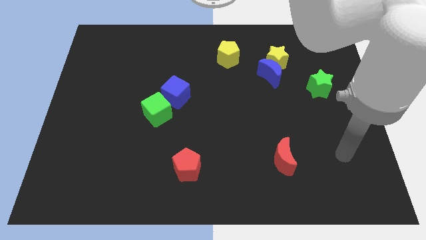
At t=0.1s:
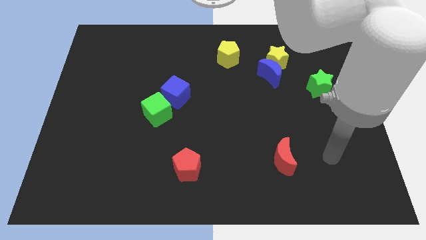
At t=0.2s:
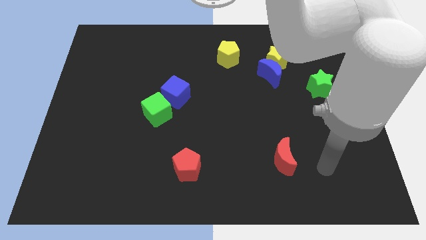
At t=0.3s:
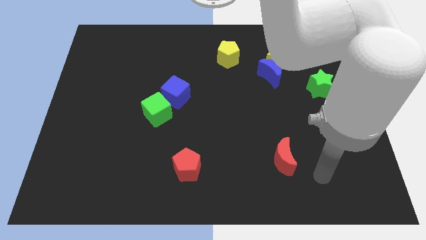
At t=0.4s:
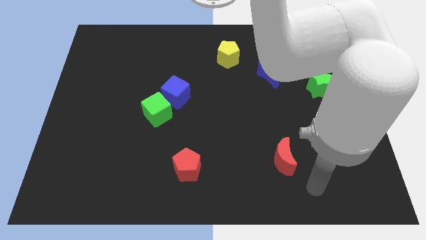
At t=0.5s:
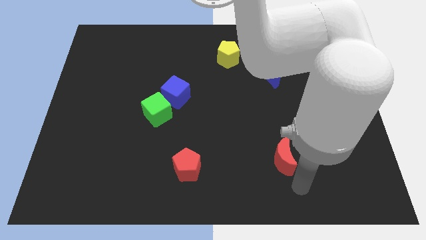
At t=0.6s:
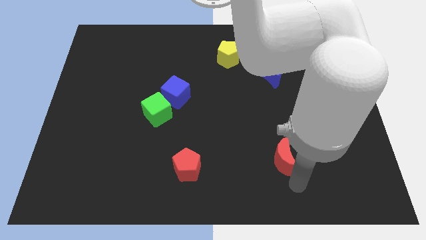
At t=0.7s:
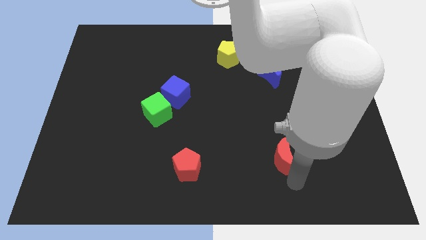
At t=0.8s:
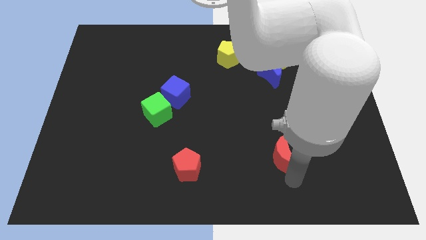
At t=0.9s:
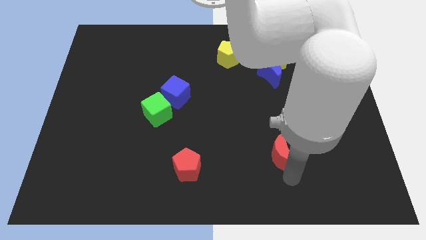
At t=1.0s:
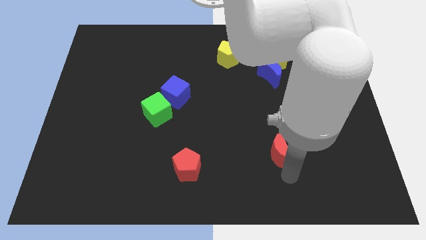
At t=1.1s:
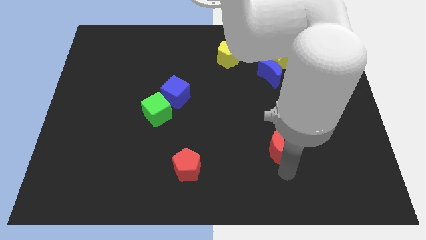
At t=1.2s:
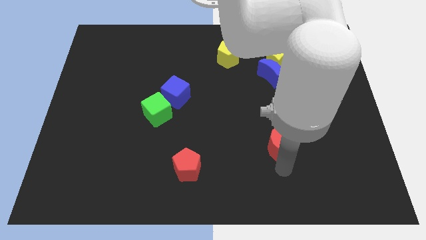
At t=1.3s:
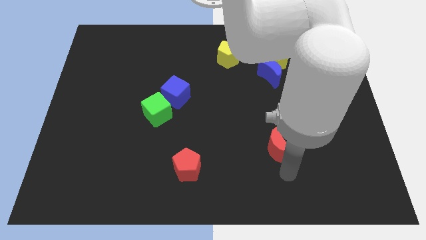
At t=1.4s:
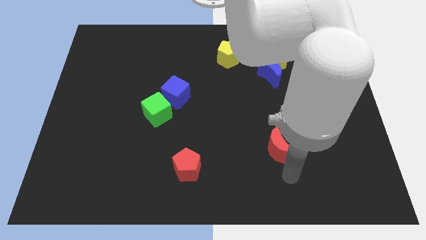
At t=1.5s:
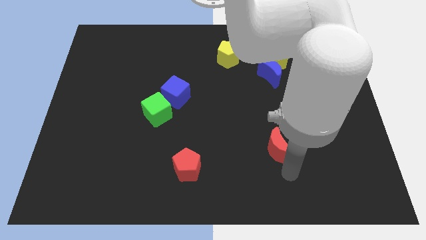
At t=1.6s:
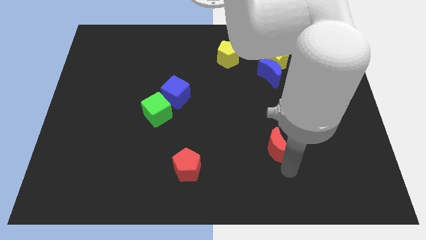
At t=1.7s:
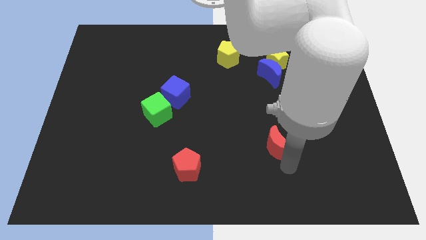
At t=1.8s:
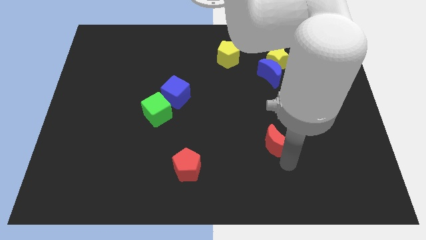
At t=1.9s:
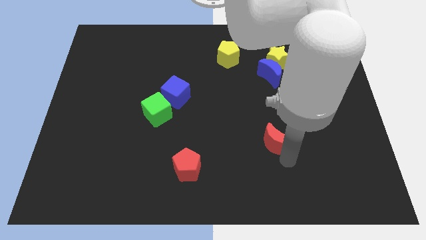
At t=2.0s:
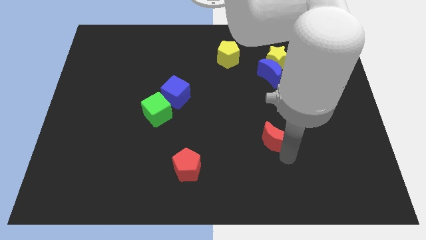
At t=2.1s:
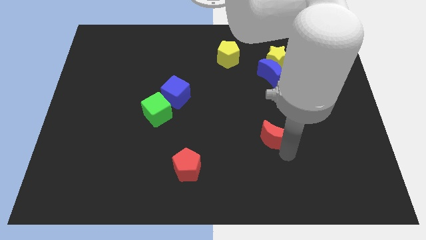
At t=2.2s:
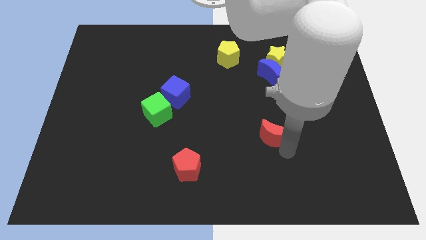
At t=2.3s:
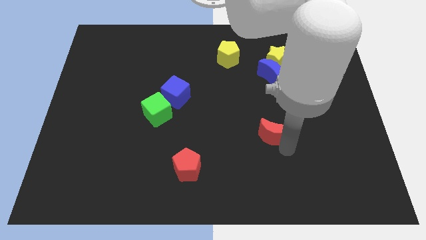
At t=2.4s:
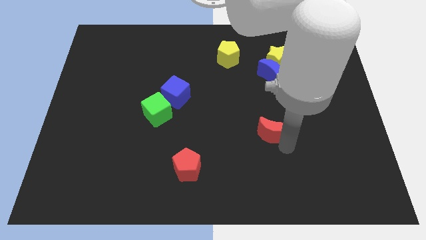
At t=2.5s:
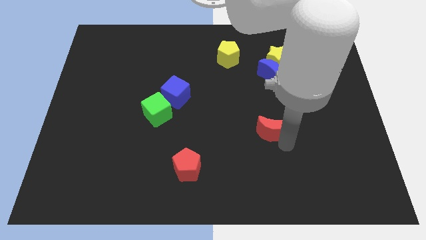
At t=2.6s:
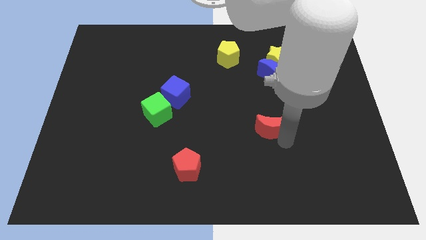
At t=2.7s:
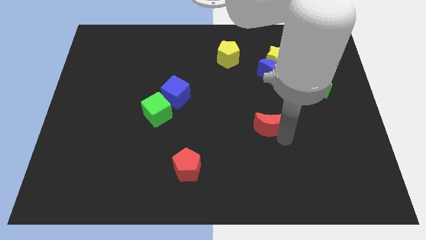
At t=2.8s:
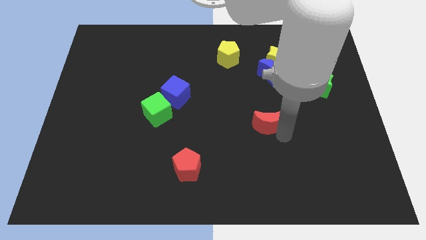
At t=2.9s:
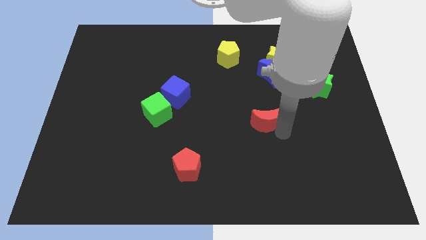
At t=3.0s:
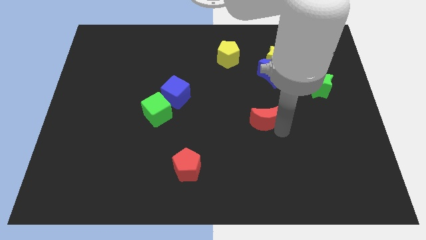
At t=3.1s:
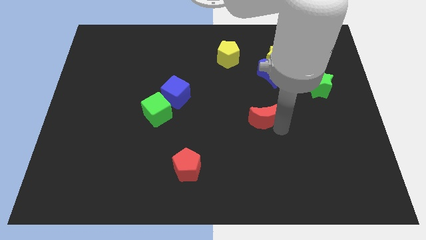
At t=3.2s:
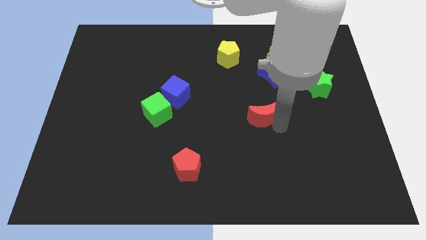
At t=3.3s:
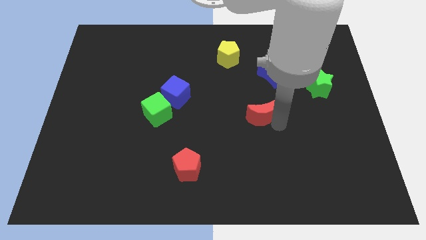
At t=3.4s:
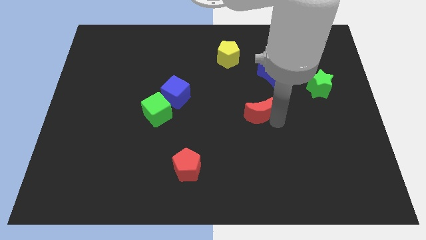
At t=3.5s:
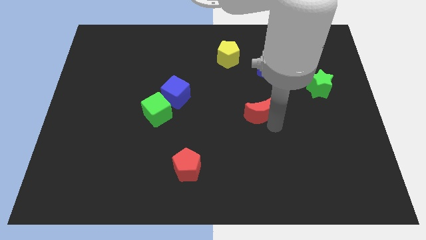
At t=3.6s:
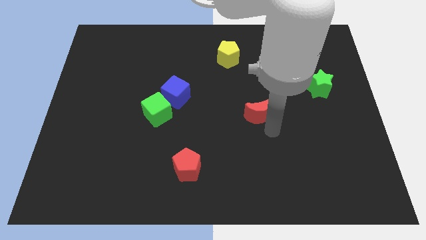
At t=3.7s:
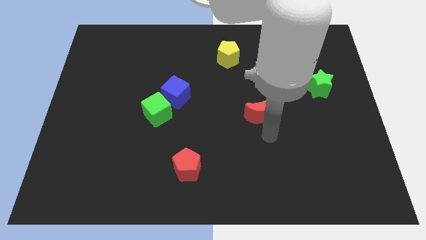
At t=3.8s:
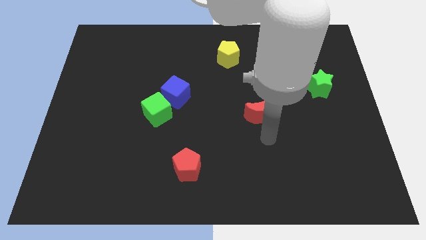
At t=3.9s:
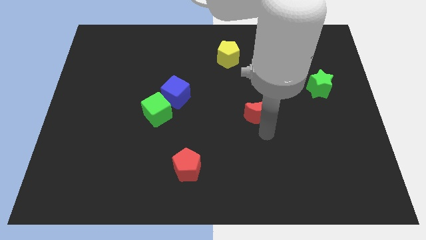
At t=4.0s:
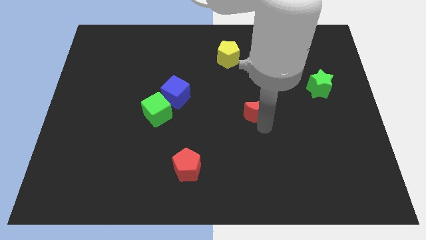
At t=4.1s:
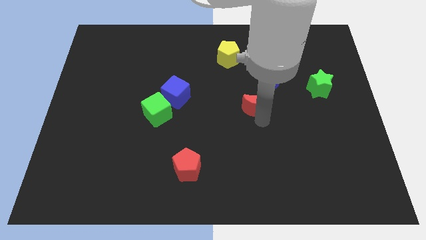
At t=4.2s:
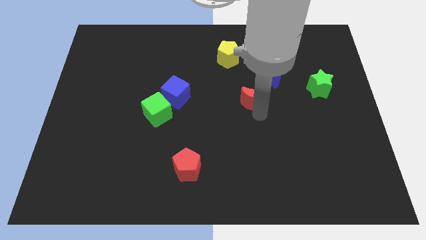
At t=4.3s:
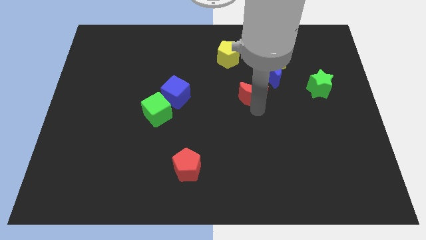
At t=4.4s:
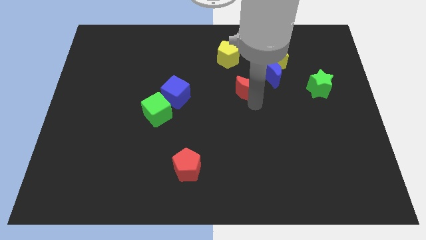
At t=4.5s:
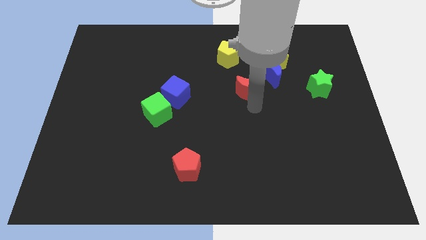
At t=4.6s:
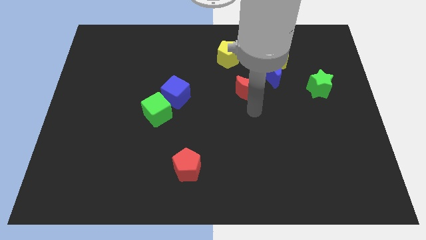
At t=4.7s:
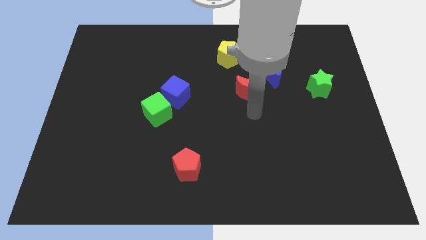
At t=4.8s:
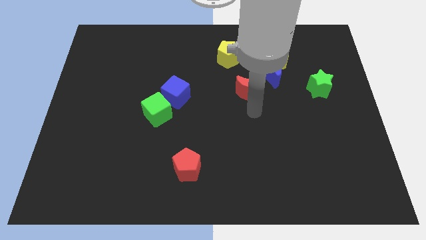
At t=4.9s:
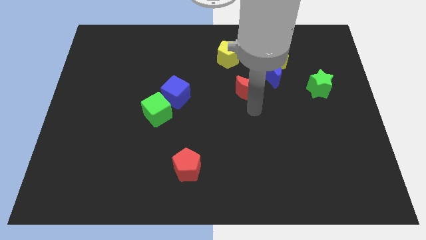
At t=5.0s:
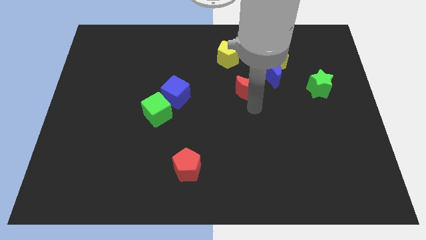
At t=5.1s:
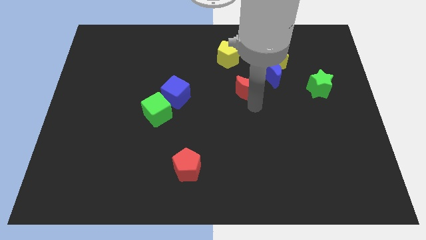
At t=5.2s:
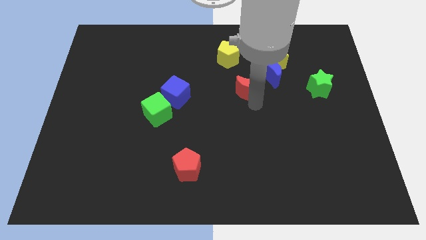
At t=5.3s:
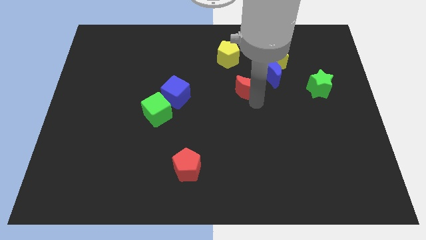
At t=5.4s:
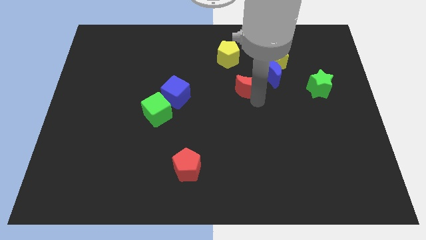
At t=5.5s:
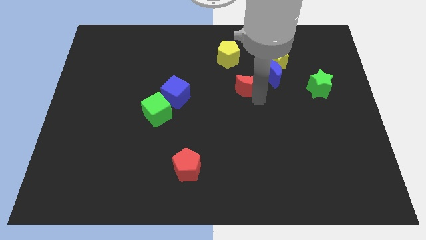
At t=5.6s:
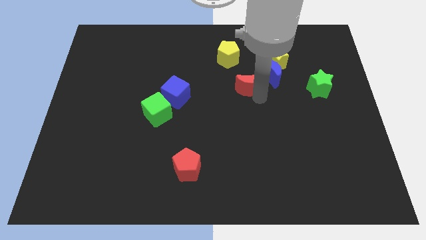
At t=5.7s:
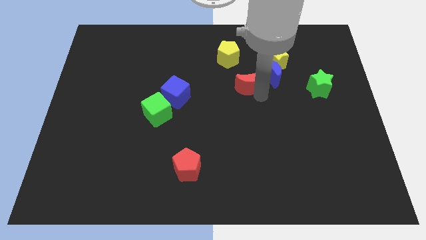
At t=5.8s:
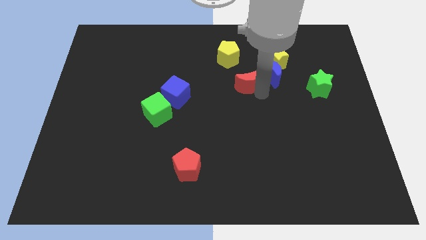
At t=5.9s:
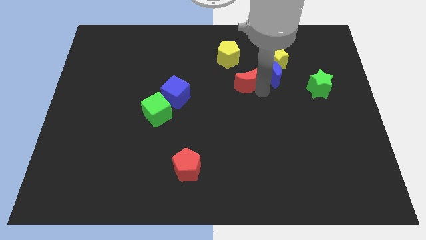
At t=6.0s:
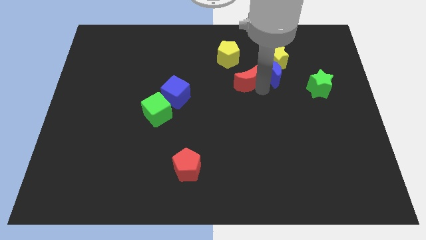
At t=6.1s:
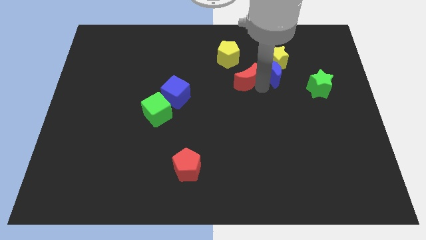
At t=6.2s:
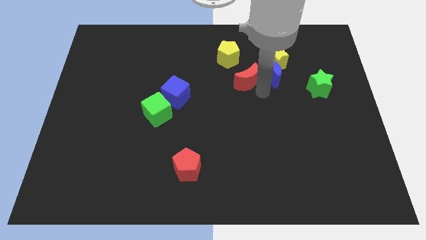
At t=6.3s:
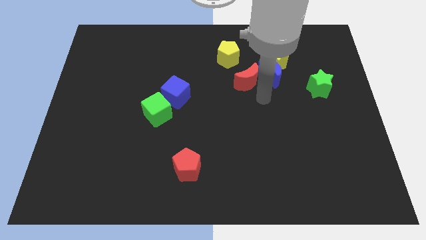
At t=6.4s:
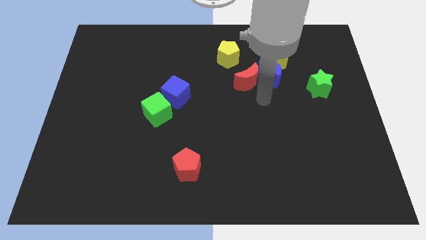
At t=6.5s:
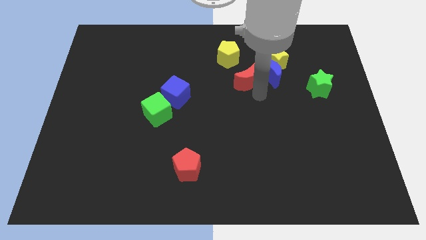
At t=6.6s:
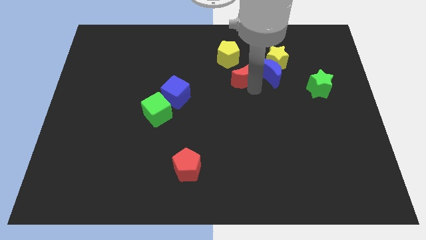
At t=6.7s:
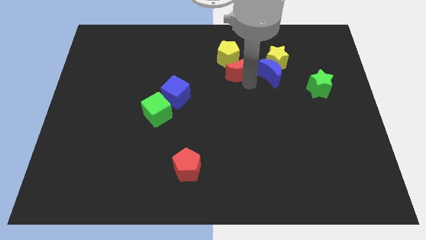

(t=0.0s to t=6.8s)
push the red moon close to the yellow pentagon

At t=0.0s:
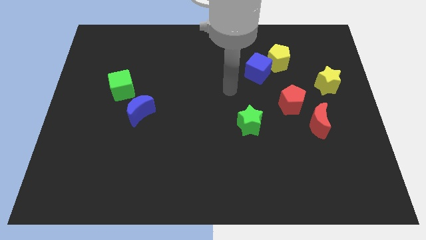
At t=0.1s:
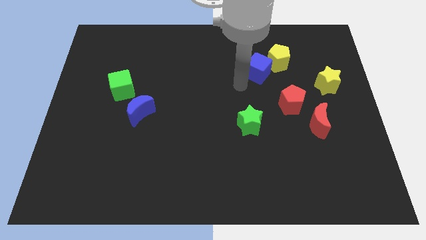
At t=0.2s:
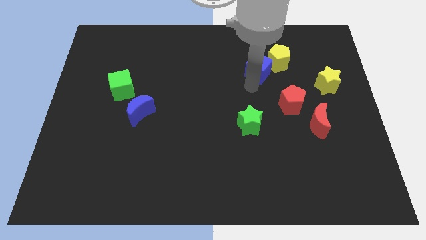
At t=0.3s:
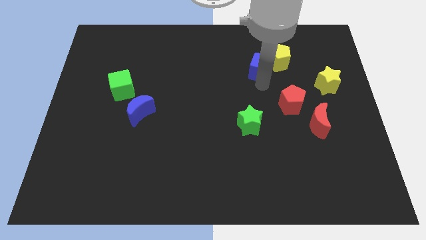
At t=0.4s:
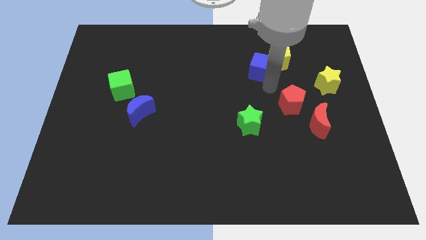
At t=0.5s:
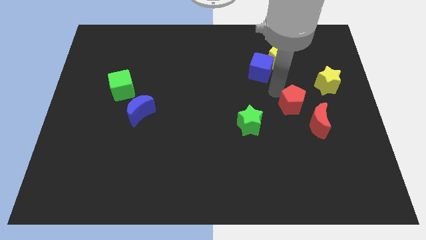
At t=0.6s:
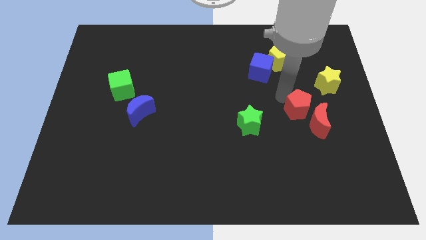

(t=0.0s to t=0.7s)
put the red pentagon to the red moon

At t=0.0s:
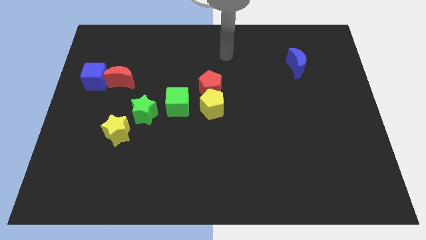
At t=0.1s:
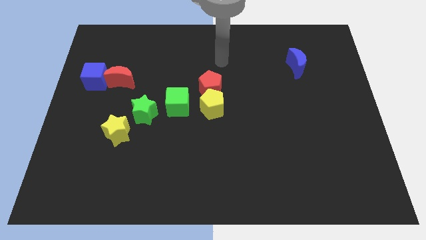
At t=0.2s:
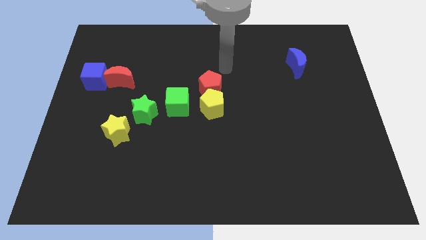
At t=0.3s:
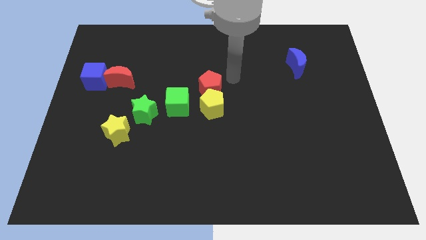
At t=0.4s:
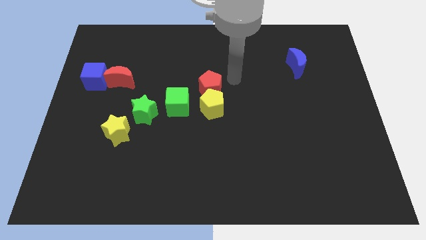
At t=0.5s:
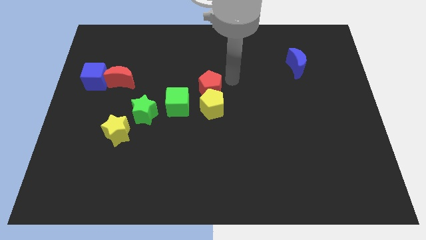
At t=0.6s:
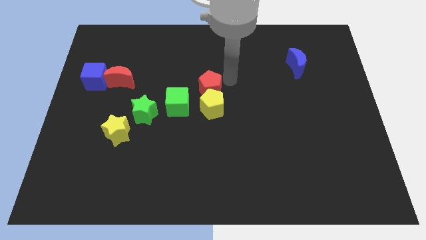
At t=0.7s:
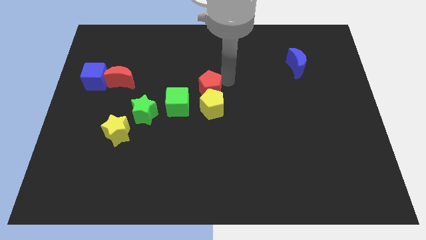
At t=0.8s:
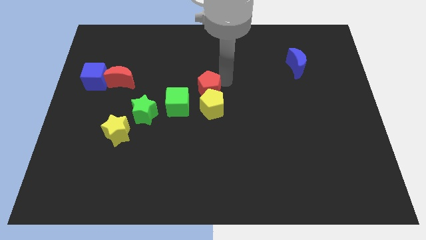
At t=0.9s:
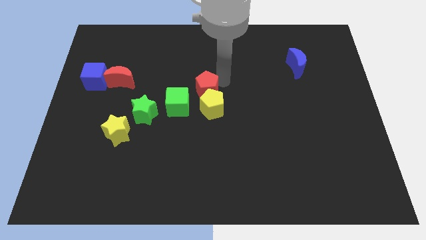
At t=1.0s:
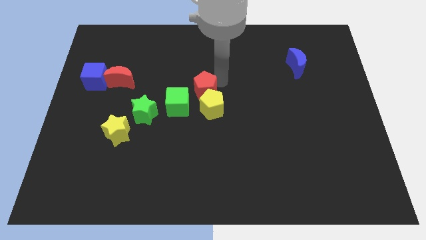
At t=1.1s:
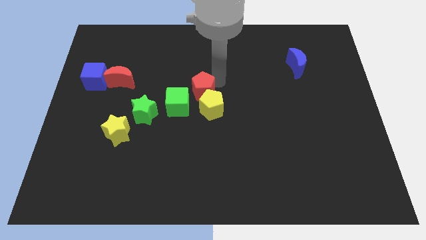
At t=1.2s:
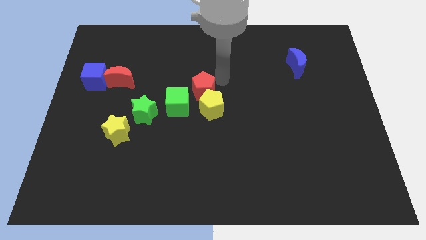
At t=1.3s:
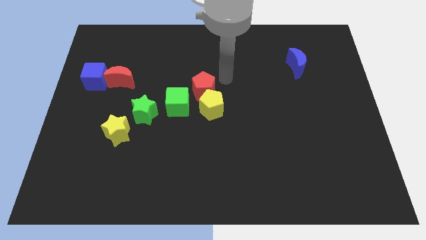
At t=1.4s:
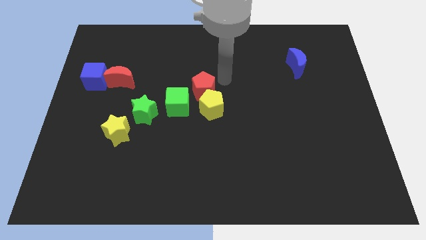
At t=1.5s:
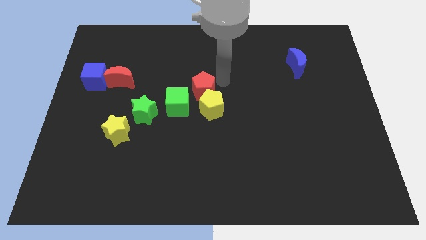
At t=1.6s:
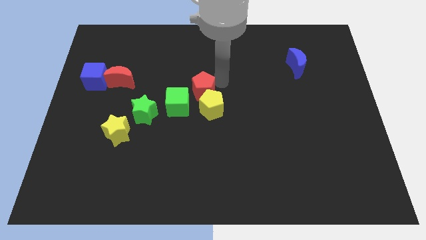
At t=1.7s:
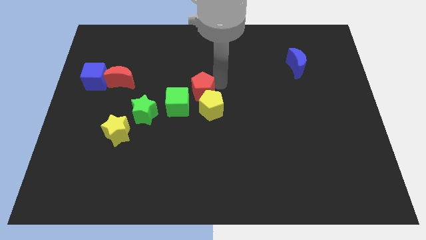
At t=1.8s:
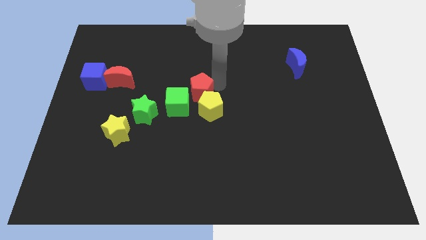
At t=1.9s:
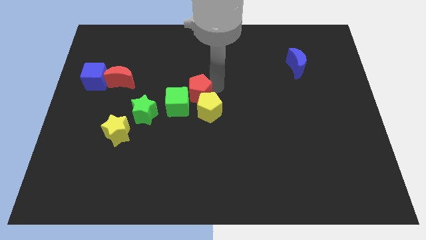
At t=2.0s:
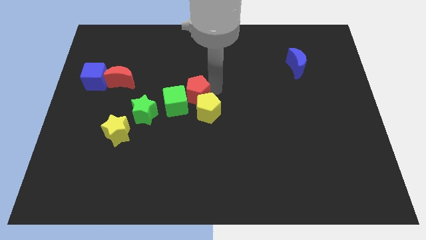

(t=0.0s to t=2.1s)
put the red pentagon close to the green cube
